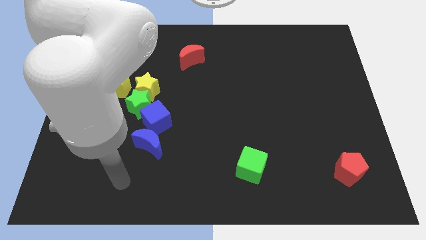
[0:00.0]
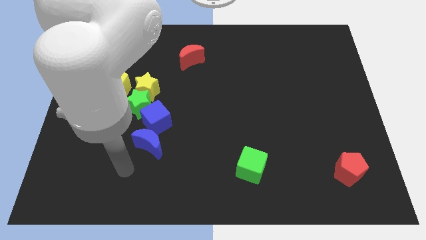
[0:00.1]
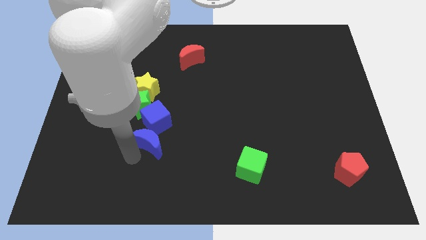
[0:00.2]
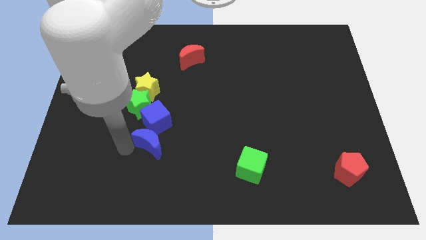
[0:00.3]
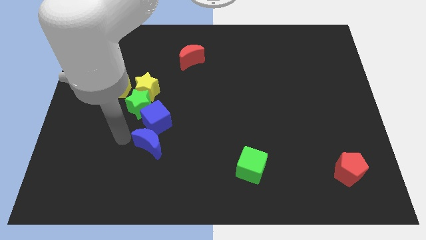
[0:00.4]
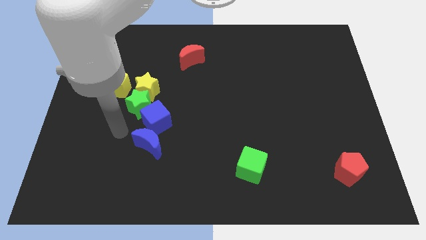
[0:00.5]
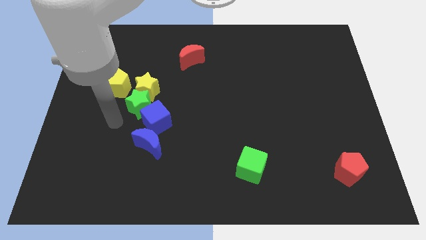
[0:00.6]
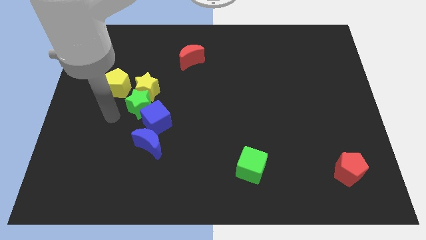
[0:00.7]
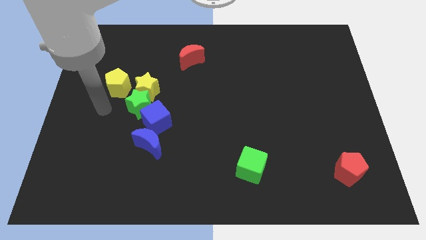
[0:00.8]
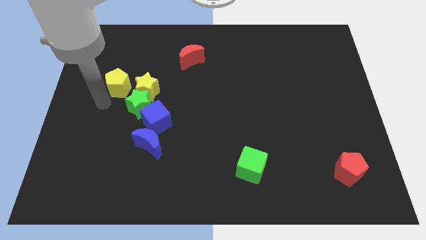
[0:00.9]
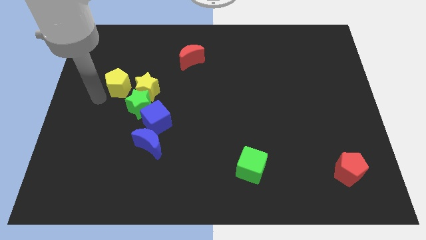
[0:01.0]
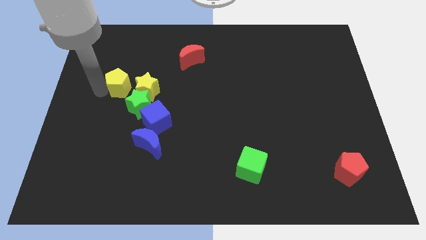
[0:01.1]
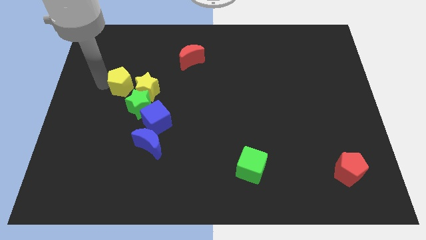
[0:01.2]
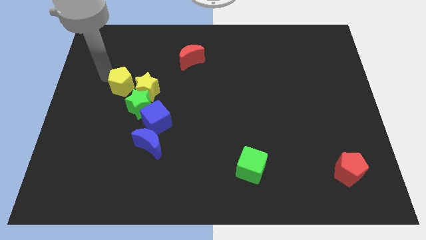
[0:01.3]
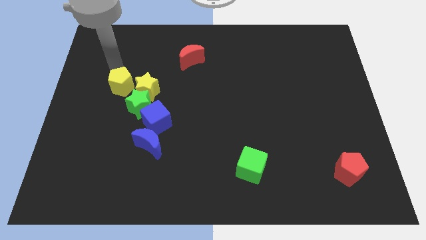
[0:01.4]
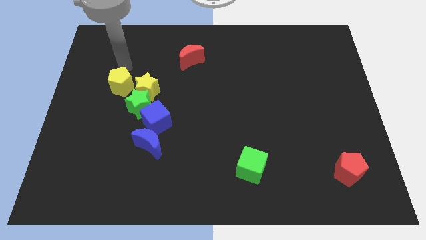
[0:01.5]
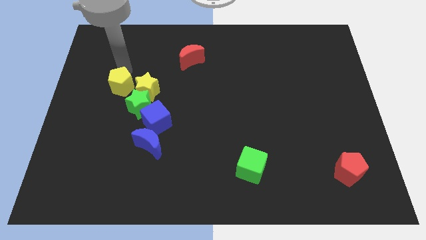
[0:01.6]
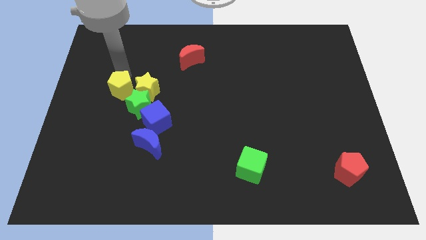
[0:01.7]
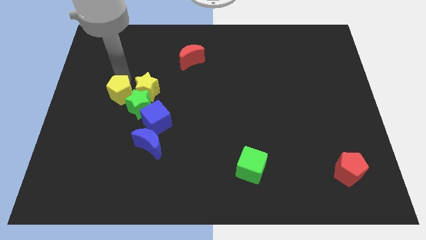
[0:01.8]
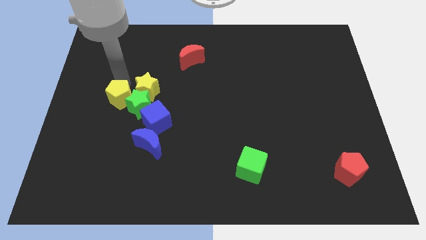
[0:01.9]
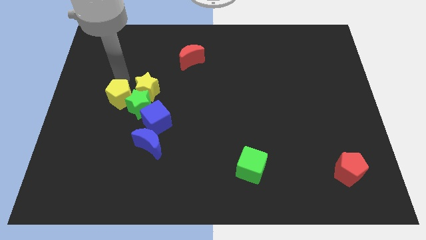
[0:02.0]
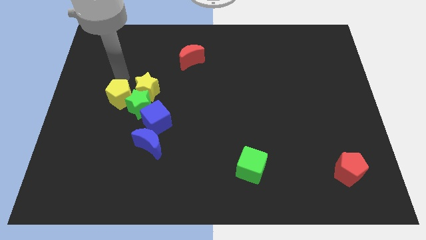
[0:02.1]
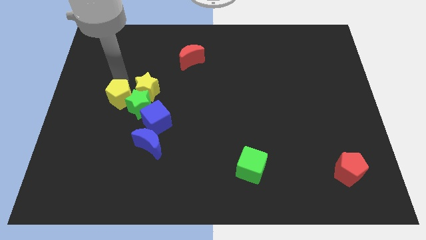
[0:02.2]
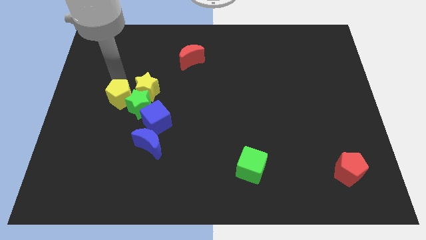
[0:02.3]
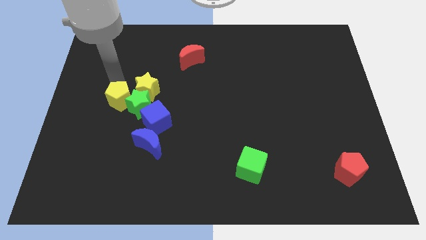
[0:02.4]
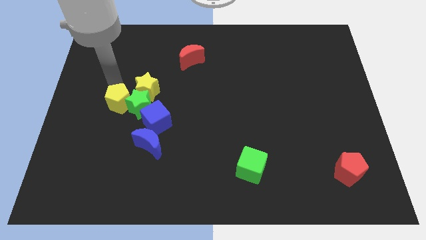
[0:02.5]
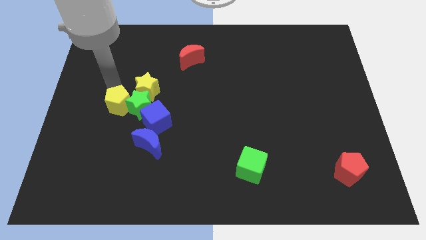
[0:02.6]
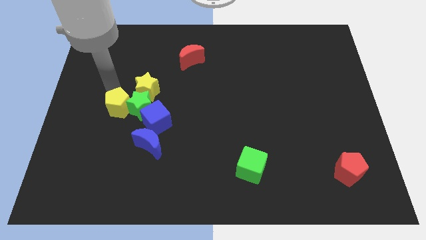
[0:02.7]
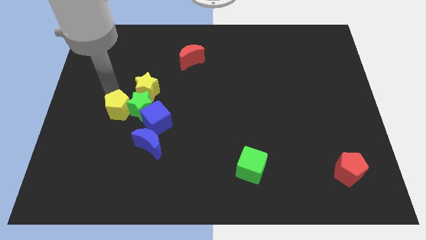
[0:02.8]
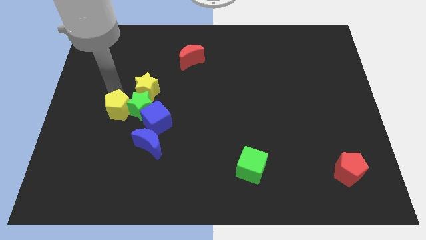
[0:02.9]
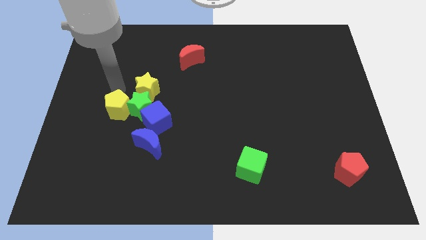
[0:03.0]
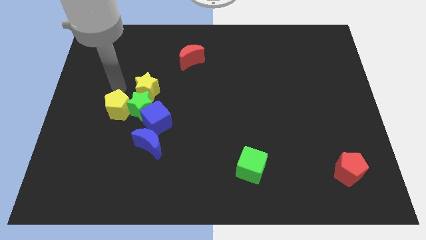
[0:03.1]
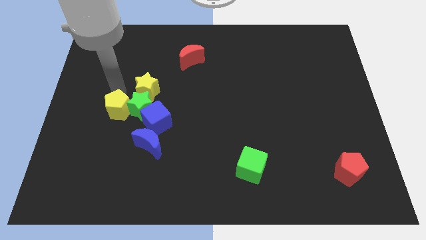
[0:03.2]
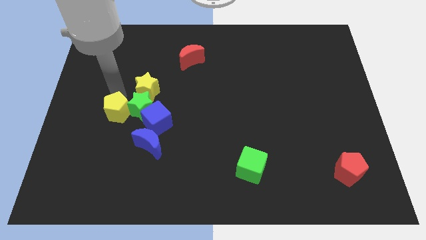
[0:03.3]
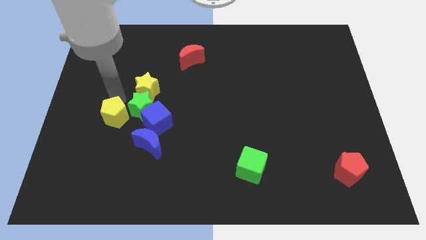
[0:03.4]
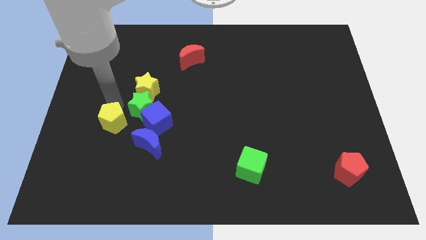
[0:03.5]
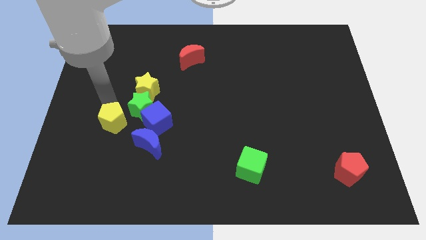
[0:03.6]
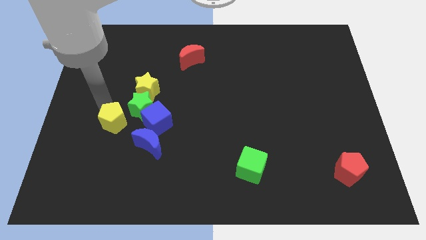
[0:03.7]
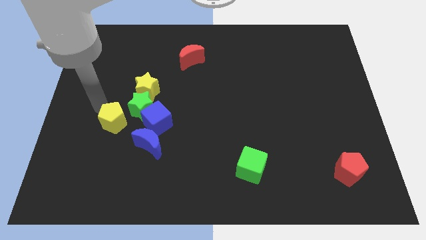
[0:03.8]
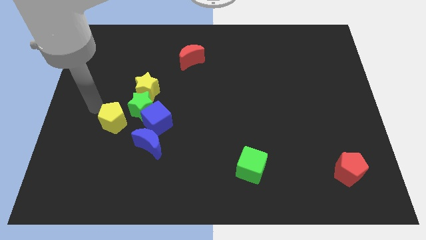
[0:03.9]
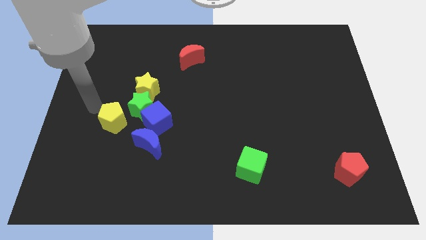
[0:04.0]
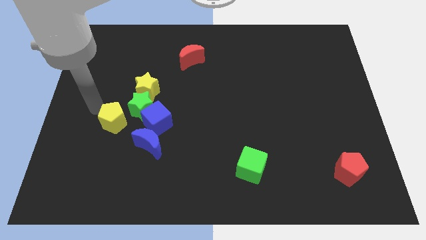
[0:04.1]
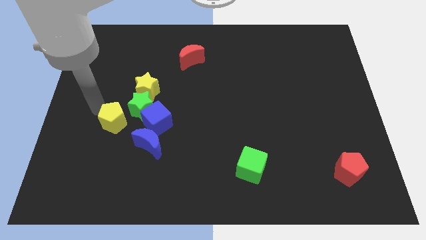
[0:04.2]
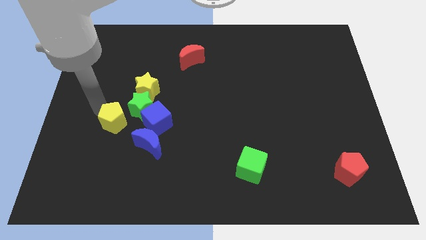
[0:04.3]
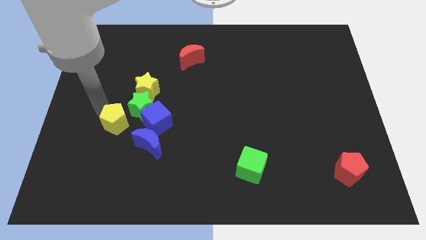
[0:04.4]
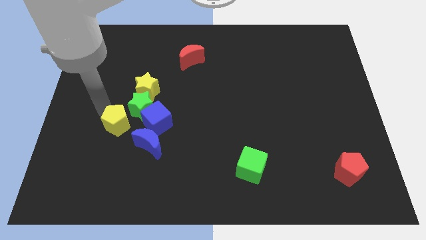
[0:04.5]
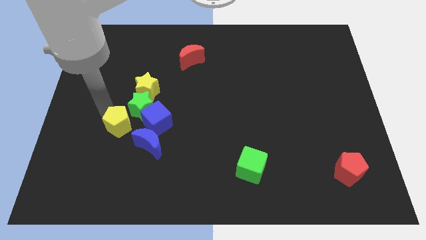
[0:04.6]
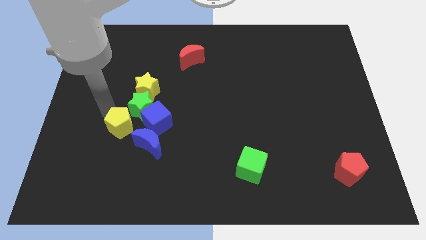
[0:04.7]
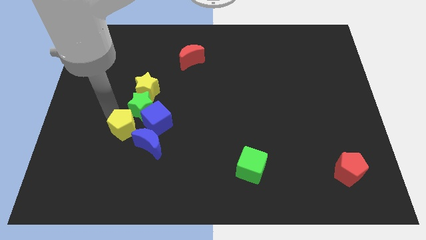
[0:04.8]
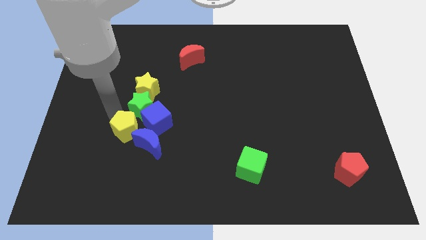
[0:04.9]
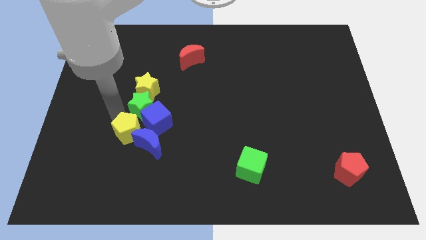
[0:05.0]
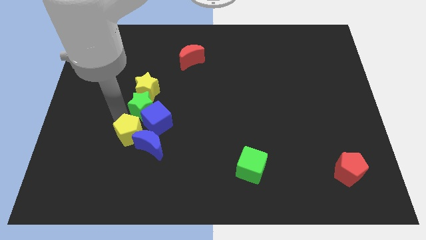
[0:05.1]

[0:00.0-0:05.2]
put the yellow pentagon close to the blue moon

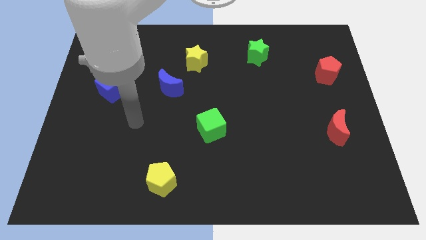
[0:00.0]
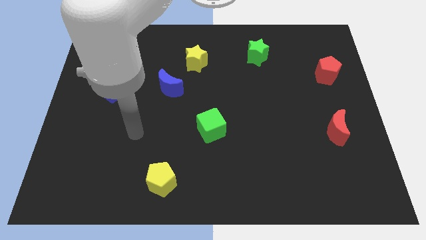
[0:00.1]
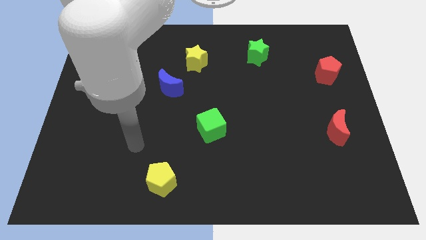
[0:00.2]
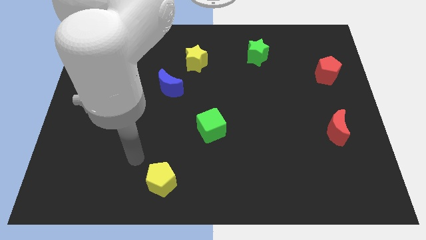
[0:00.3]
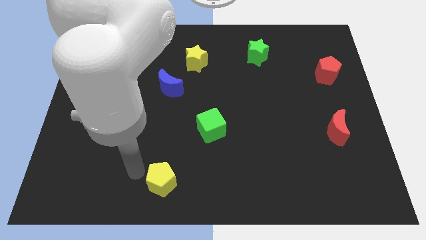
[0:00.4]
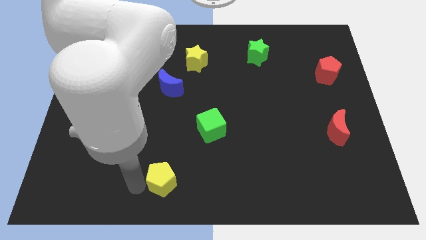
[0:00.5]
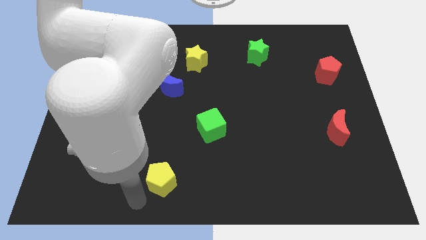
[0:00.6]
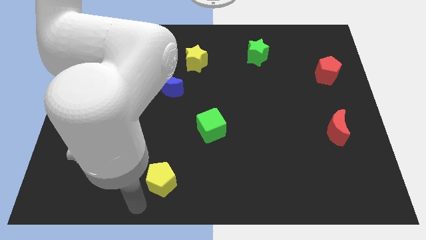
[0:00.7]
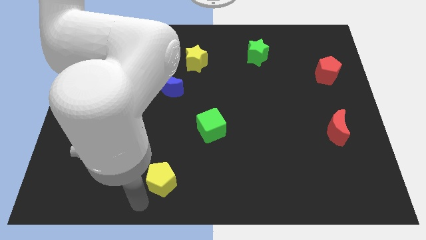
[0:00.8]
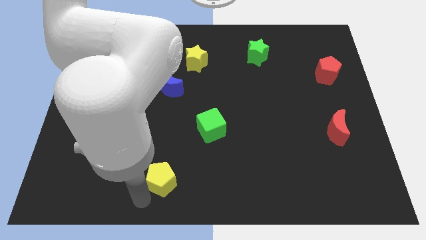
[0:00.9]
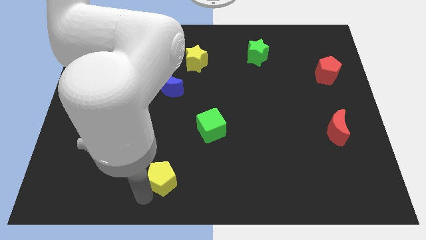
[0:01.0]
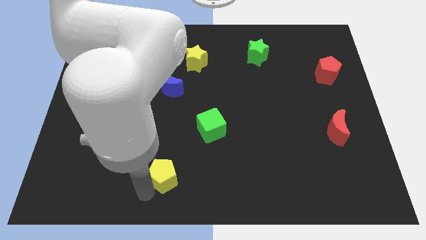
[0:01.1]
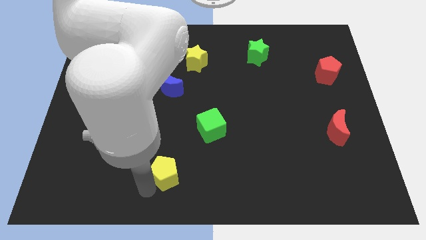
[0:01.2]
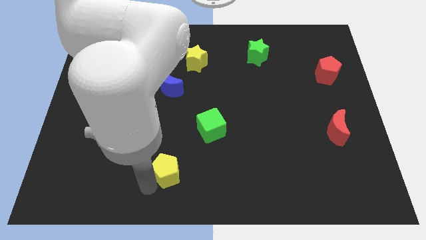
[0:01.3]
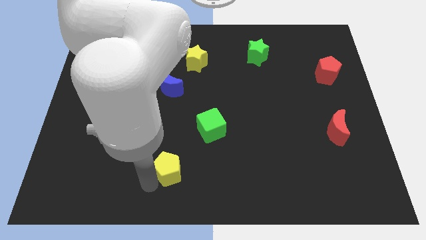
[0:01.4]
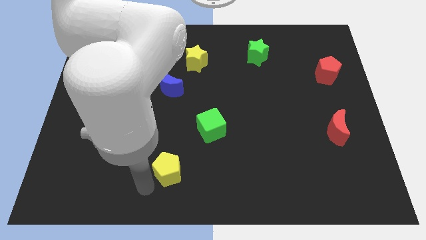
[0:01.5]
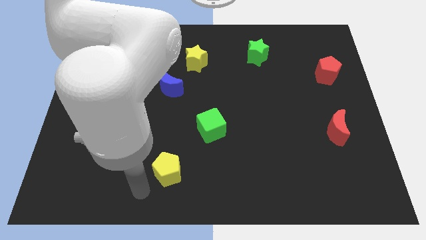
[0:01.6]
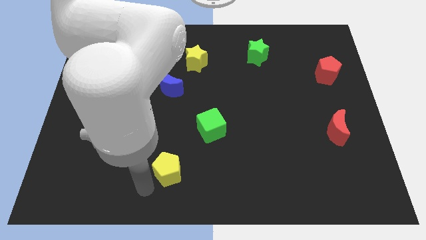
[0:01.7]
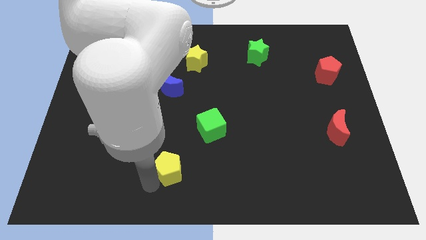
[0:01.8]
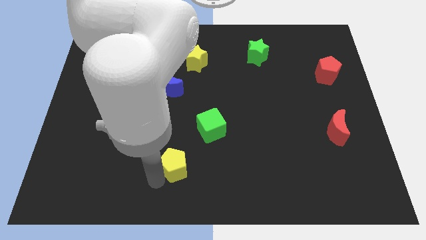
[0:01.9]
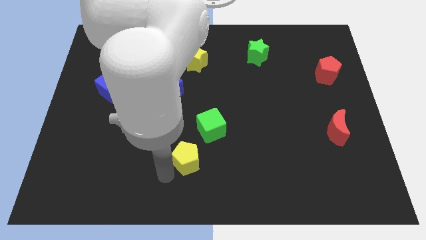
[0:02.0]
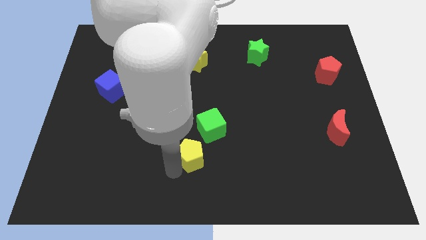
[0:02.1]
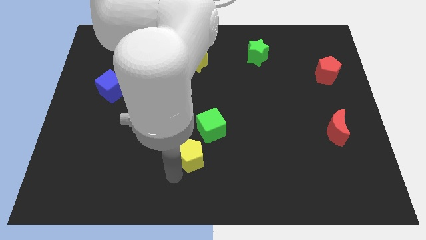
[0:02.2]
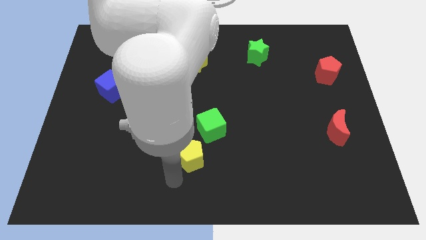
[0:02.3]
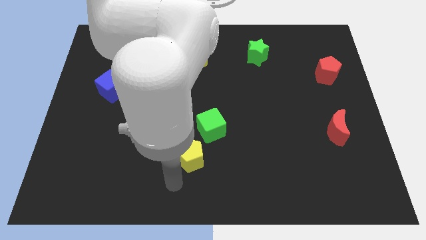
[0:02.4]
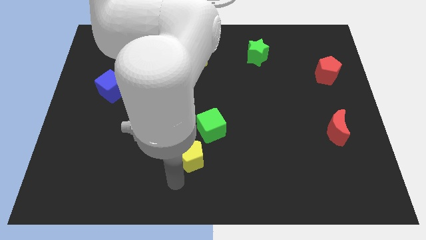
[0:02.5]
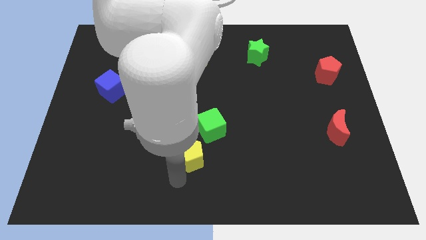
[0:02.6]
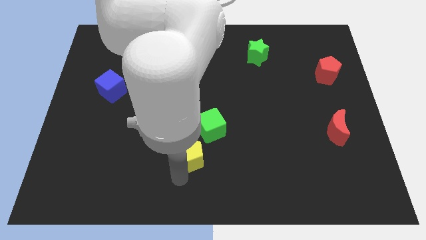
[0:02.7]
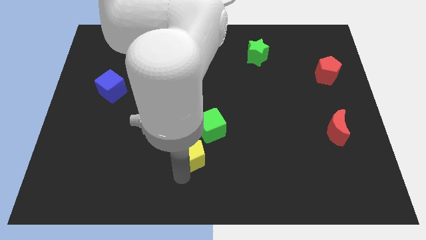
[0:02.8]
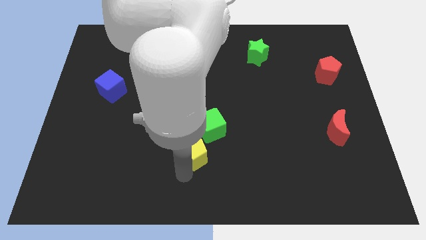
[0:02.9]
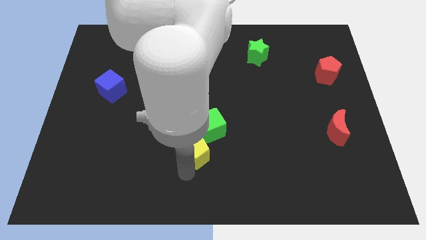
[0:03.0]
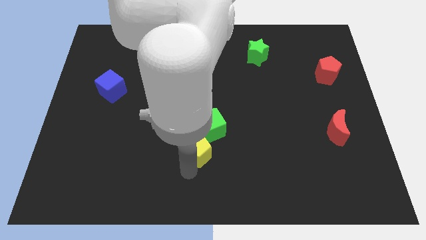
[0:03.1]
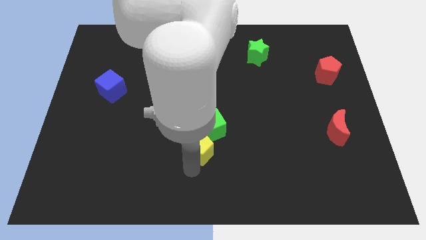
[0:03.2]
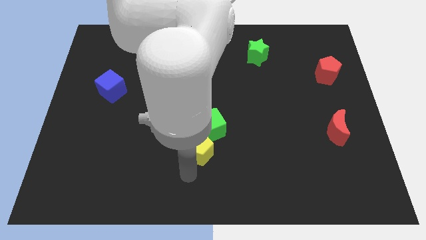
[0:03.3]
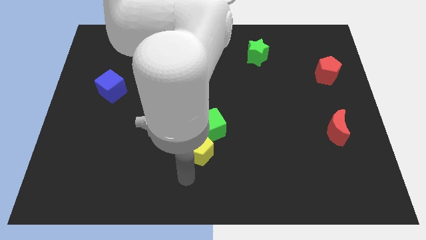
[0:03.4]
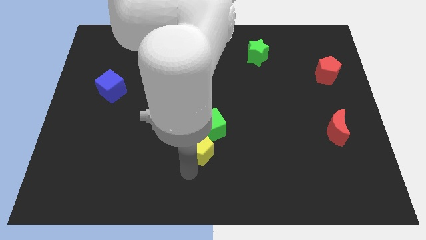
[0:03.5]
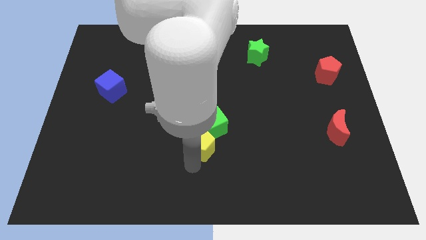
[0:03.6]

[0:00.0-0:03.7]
slide the yellow pentagon to the green cube
